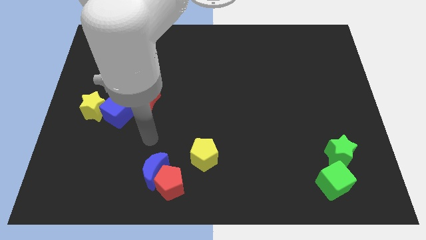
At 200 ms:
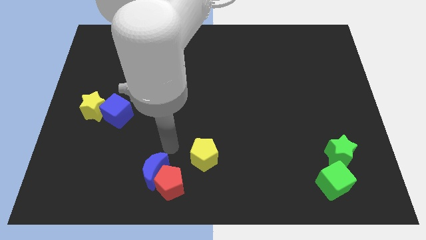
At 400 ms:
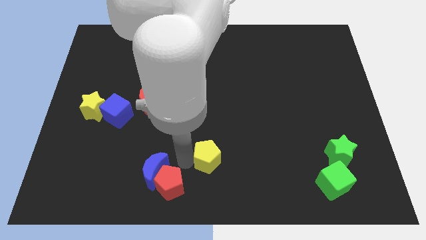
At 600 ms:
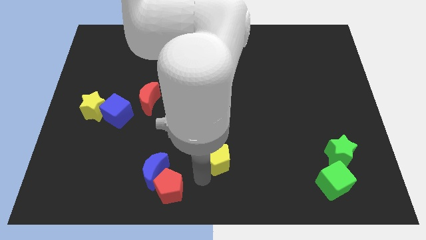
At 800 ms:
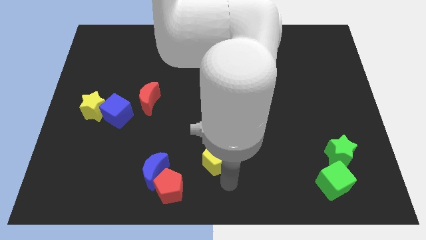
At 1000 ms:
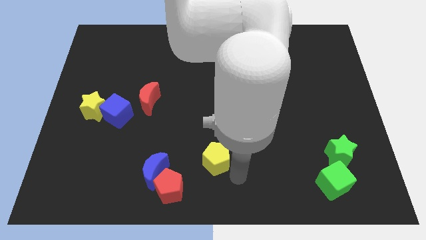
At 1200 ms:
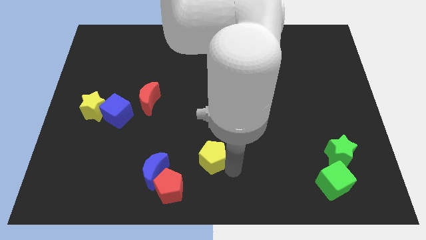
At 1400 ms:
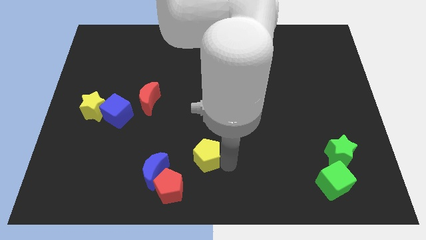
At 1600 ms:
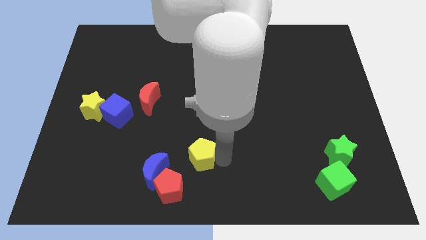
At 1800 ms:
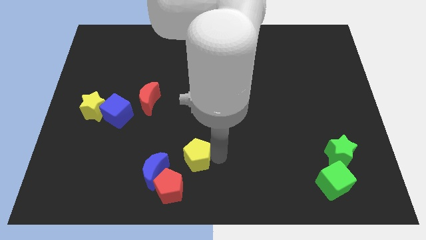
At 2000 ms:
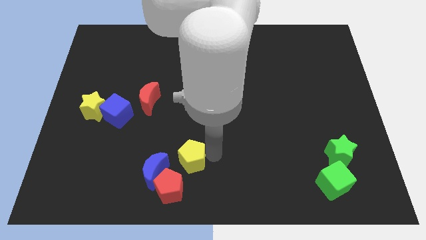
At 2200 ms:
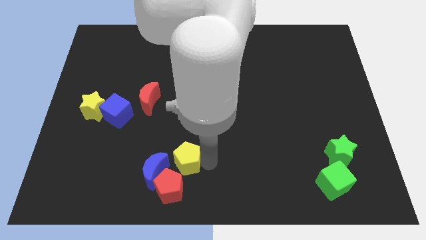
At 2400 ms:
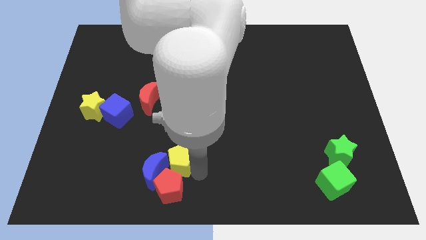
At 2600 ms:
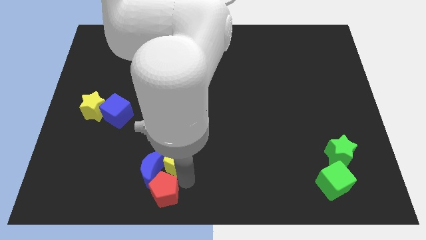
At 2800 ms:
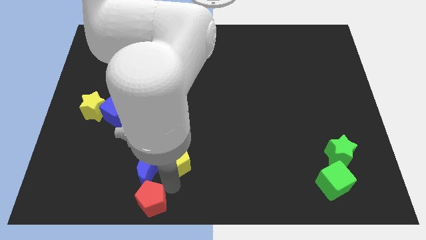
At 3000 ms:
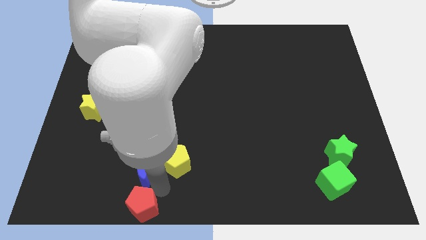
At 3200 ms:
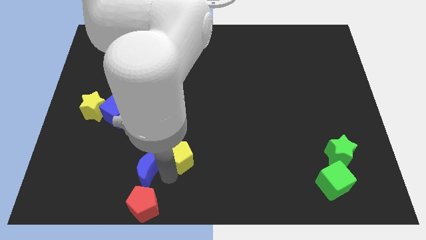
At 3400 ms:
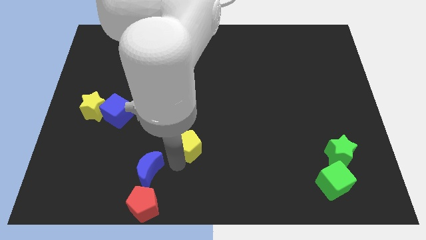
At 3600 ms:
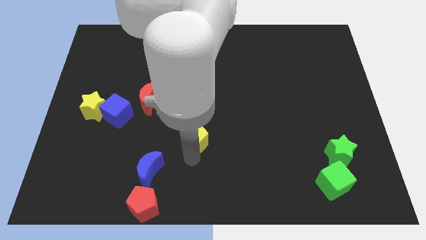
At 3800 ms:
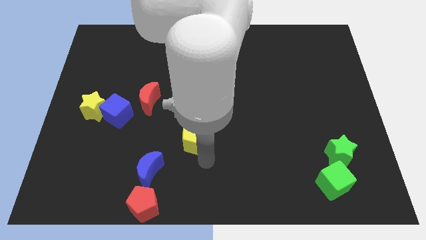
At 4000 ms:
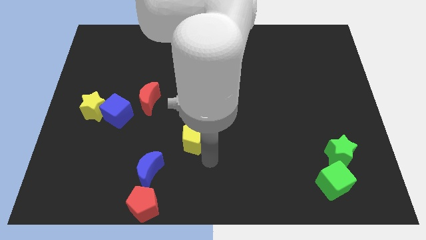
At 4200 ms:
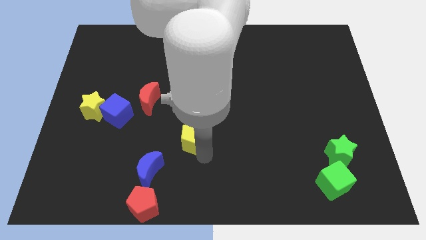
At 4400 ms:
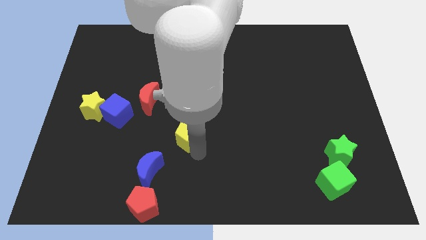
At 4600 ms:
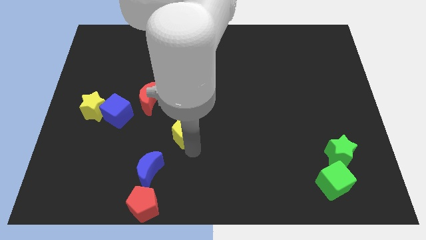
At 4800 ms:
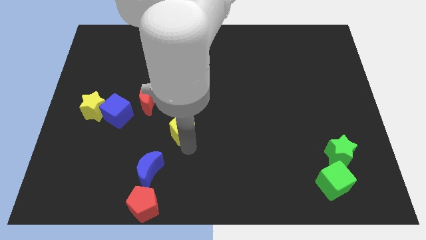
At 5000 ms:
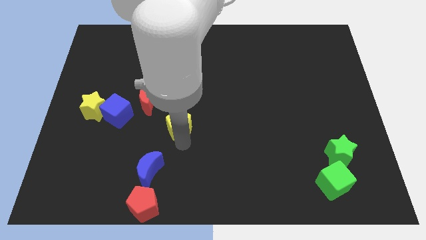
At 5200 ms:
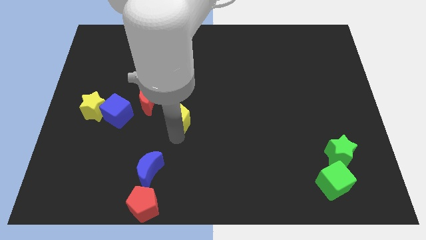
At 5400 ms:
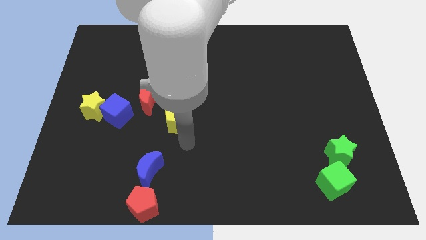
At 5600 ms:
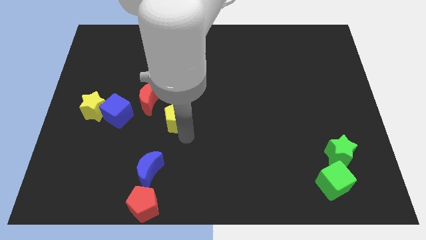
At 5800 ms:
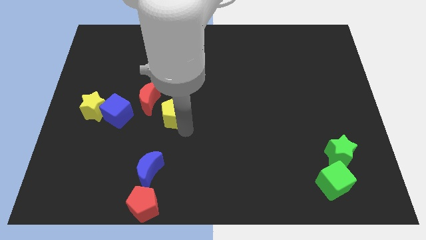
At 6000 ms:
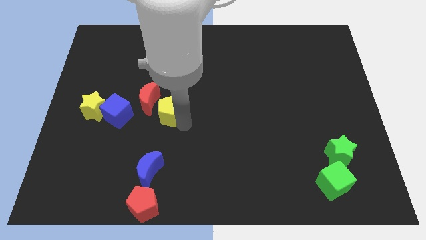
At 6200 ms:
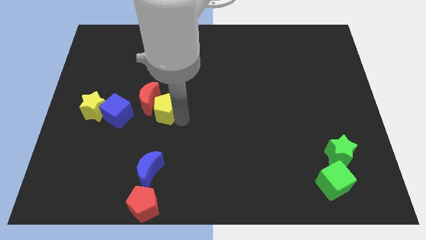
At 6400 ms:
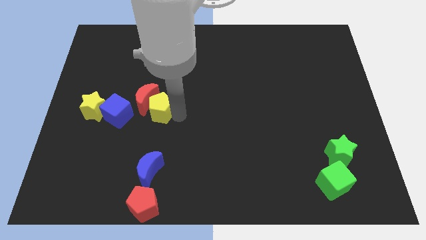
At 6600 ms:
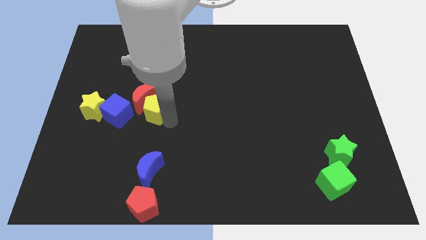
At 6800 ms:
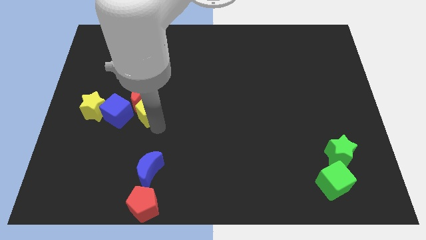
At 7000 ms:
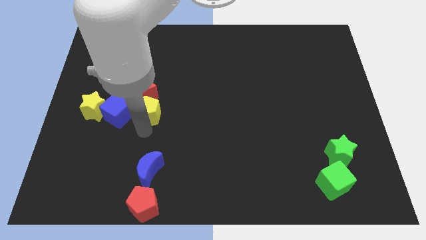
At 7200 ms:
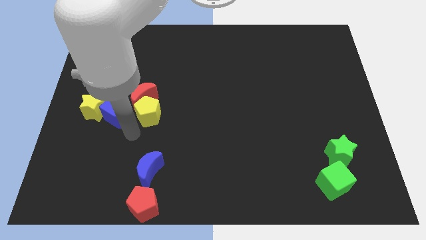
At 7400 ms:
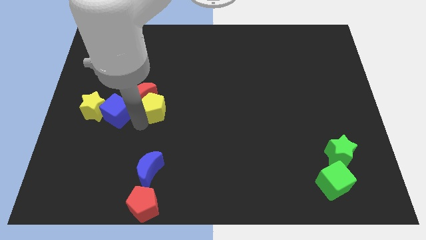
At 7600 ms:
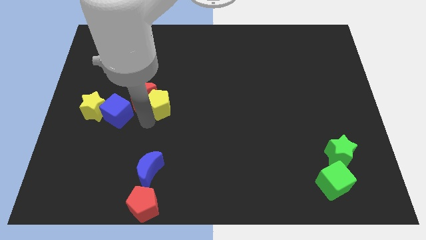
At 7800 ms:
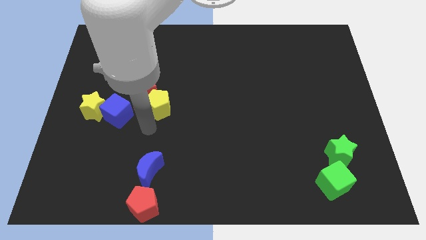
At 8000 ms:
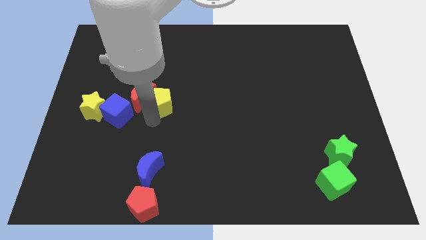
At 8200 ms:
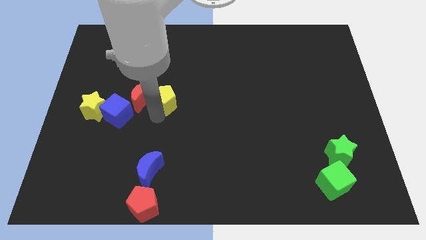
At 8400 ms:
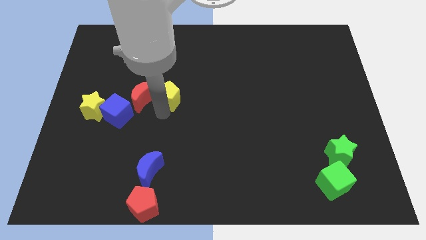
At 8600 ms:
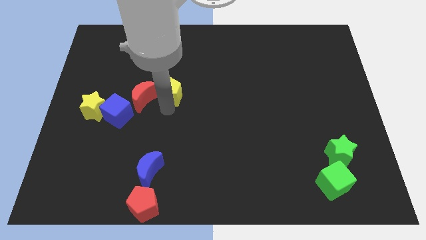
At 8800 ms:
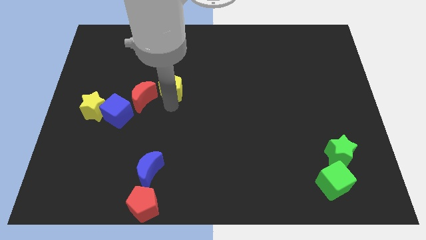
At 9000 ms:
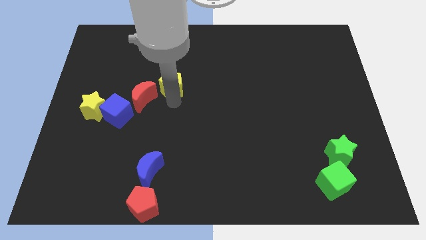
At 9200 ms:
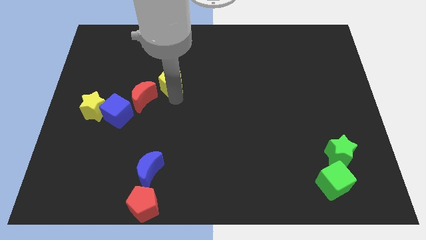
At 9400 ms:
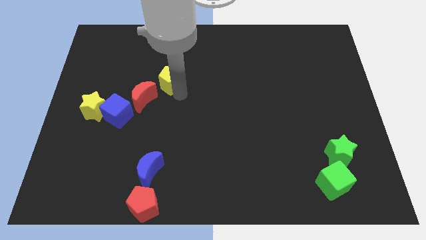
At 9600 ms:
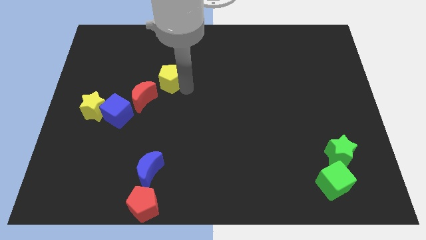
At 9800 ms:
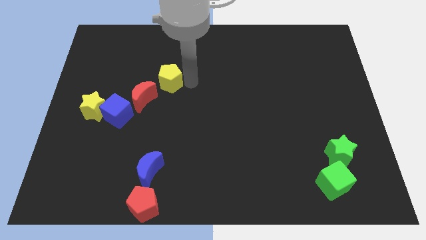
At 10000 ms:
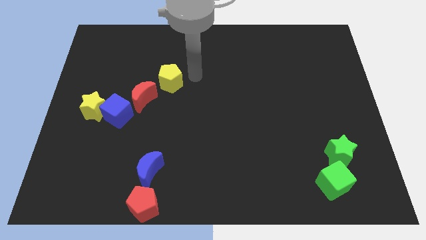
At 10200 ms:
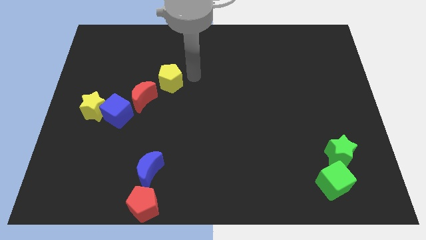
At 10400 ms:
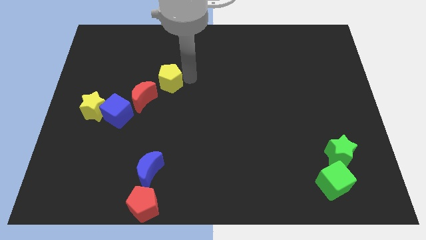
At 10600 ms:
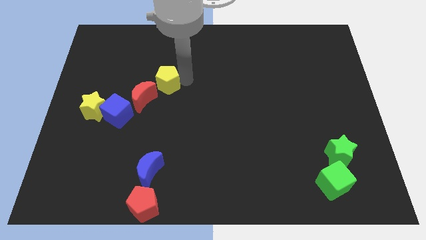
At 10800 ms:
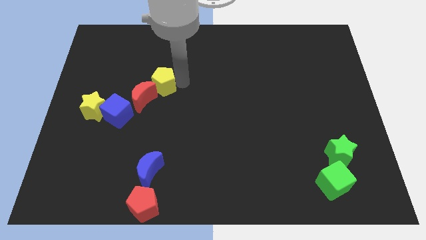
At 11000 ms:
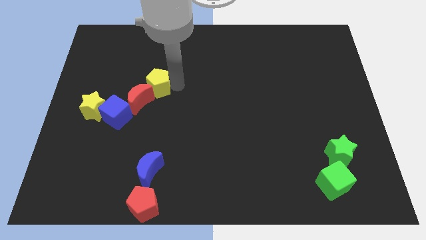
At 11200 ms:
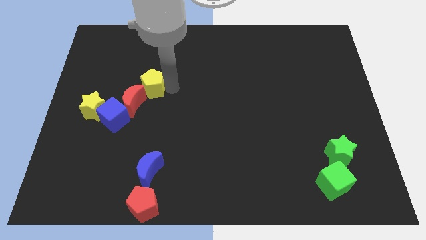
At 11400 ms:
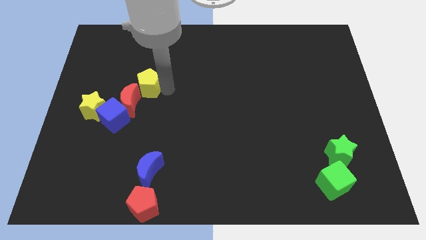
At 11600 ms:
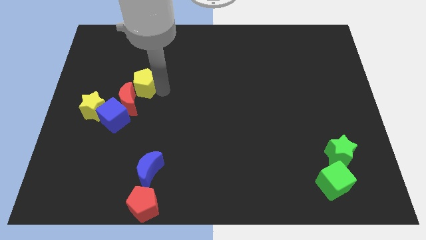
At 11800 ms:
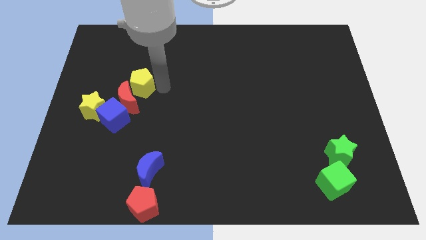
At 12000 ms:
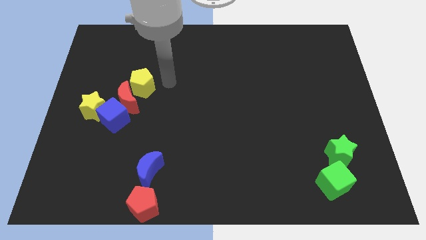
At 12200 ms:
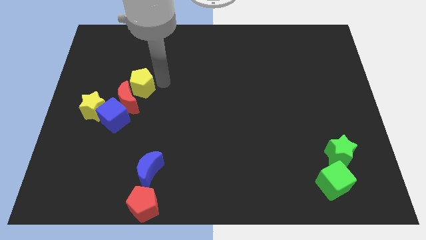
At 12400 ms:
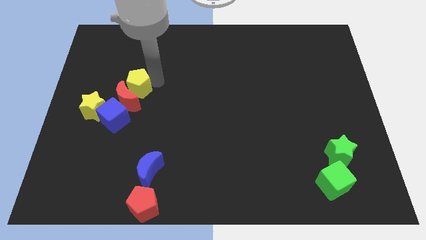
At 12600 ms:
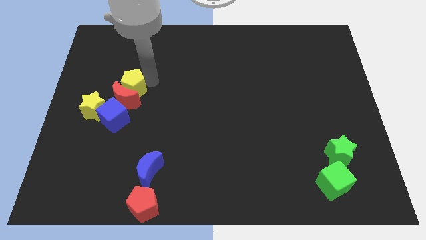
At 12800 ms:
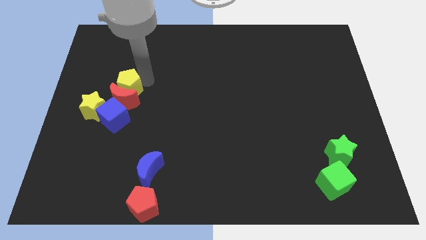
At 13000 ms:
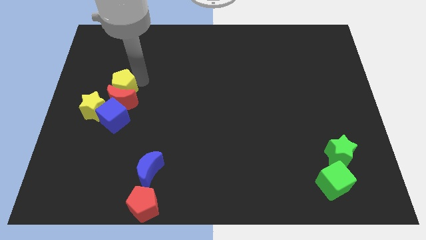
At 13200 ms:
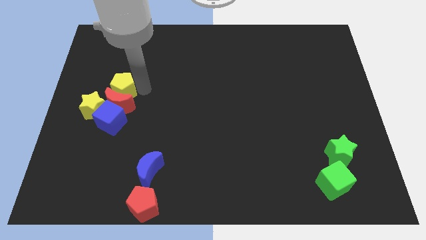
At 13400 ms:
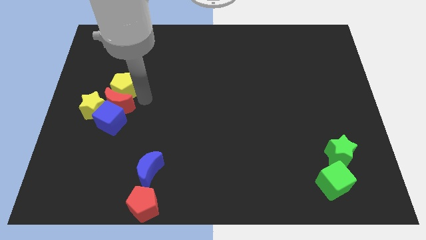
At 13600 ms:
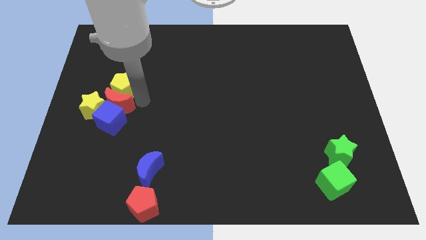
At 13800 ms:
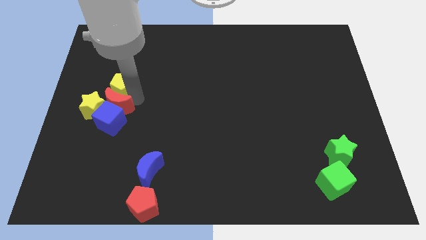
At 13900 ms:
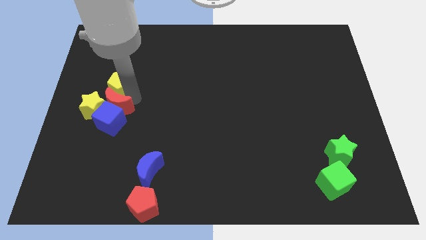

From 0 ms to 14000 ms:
put the yellow pentagon to the top of the yellow star
